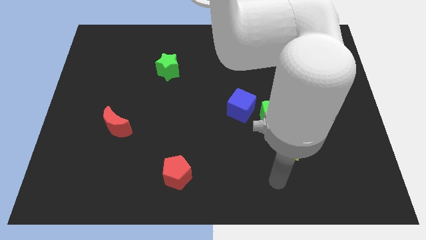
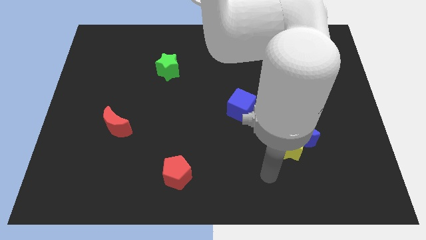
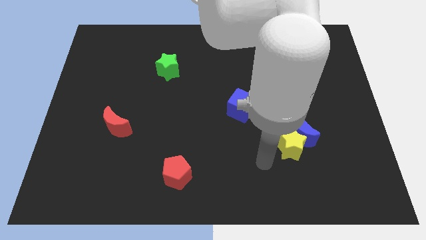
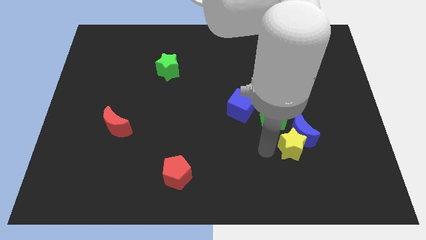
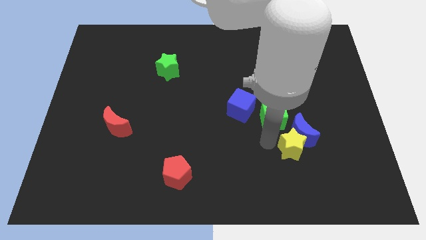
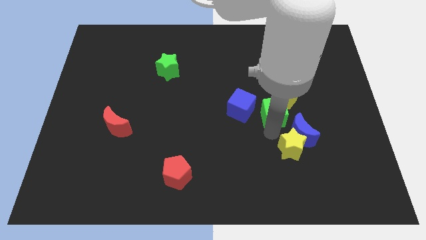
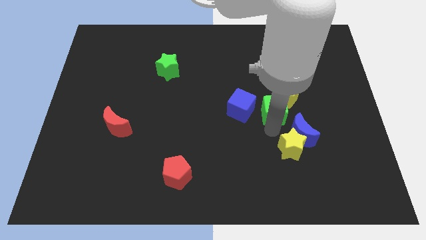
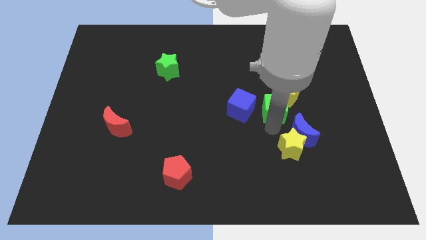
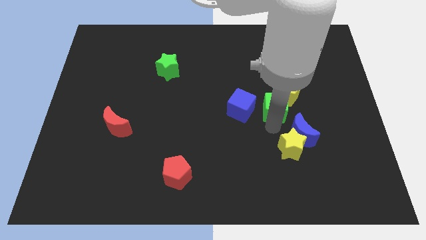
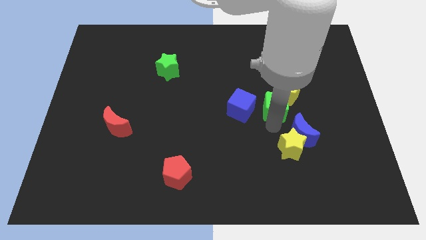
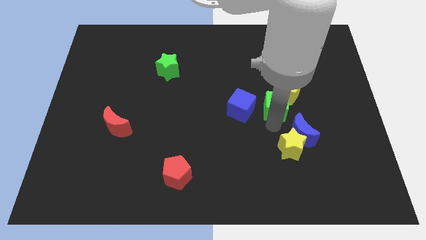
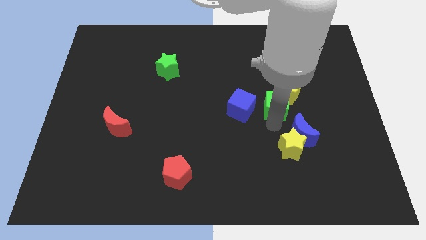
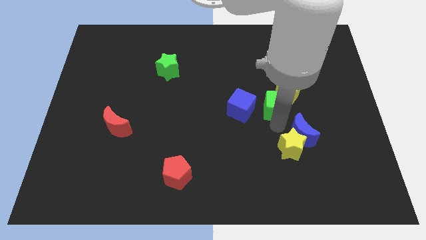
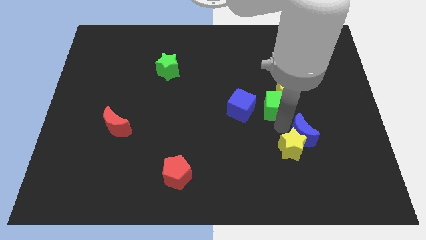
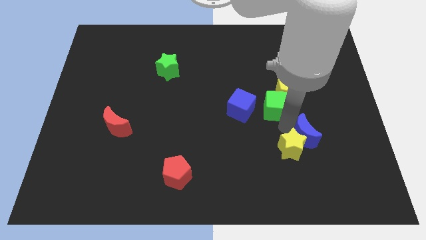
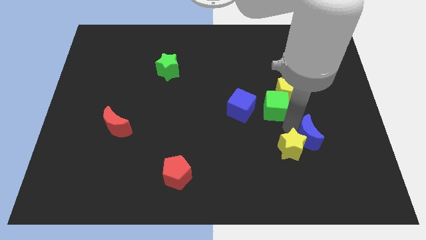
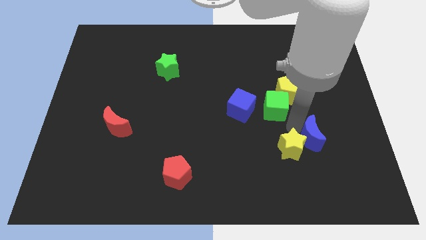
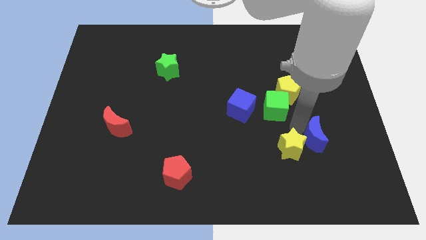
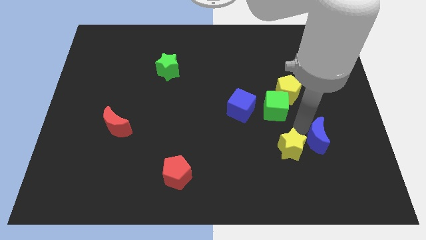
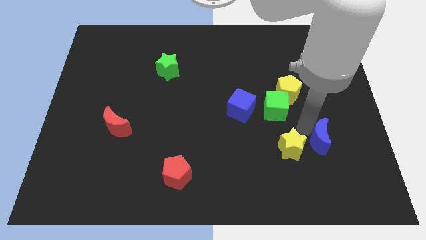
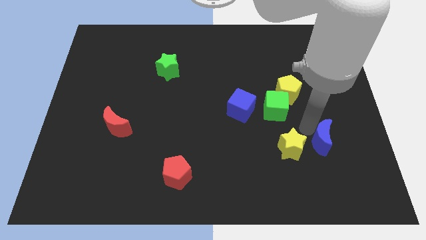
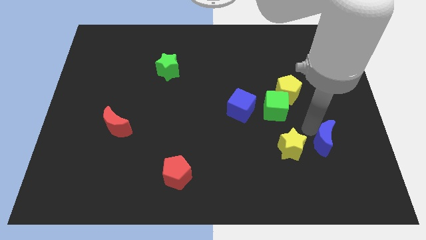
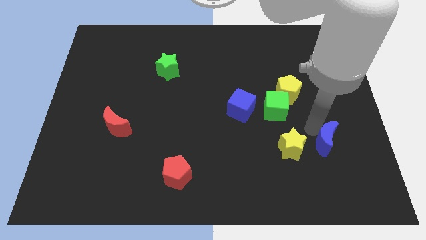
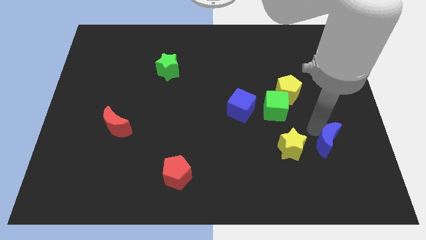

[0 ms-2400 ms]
separate the blue moon from the yellow star and green cube

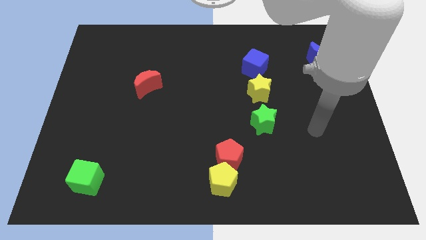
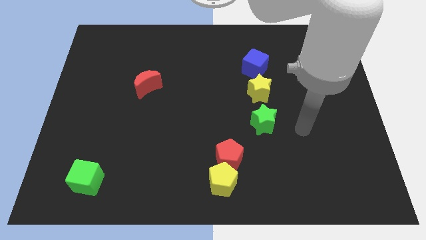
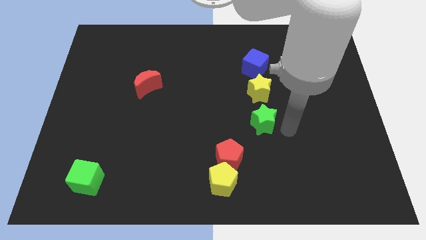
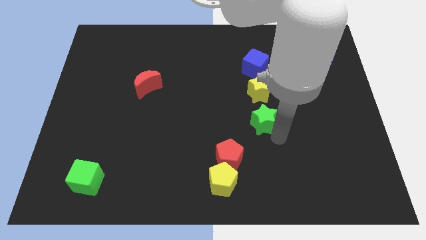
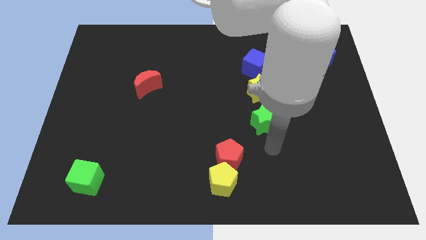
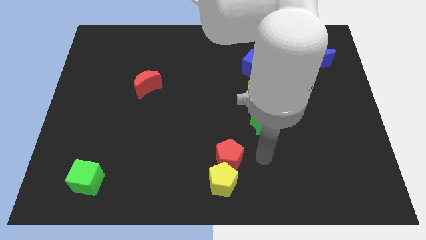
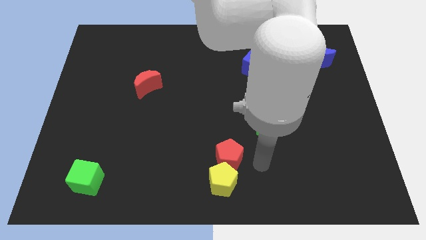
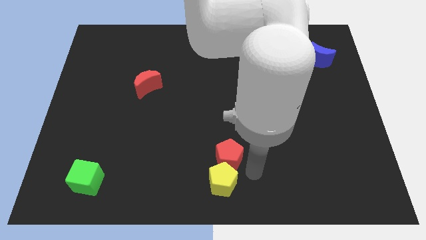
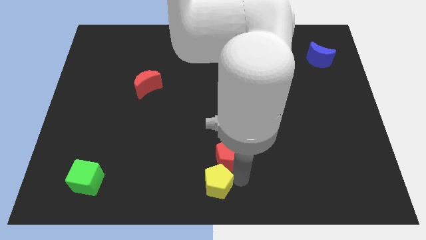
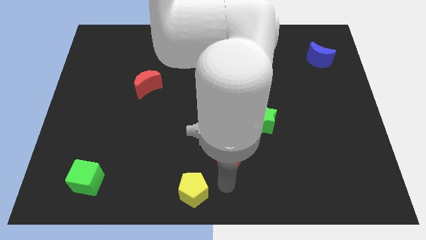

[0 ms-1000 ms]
pull the red pentagon apart from the yellow pentagon

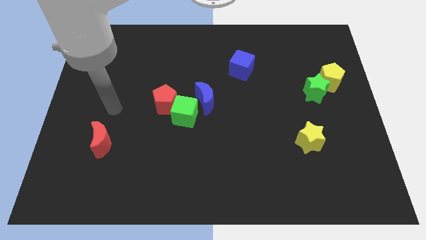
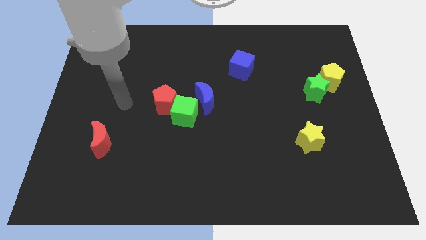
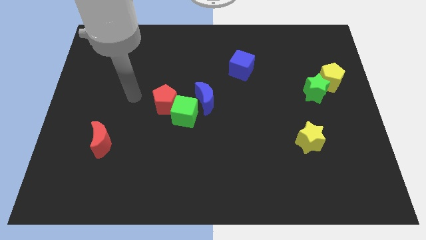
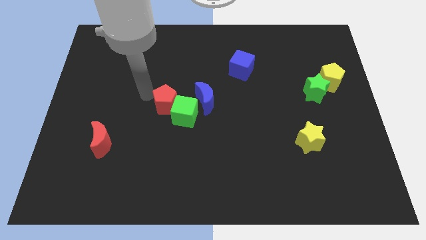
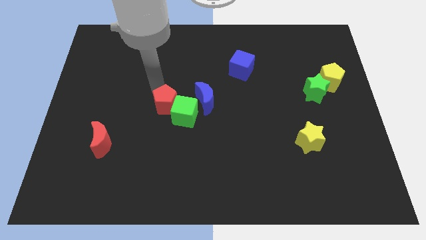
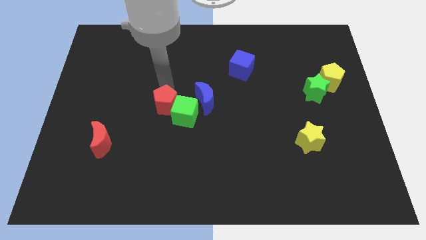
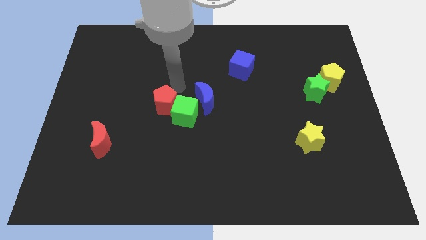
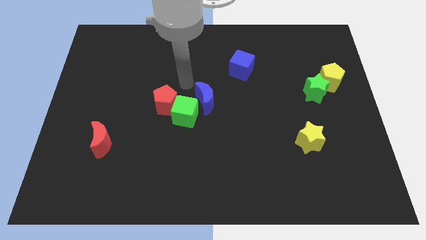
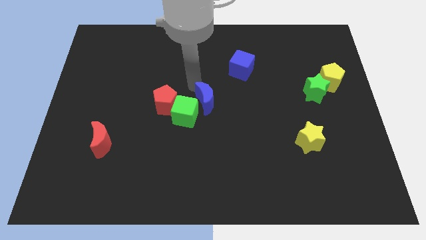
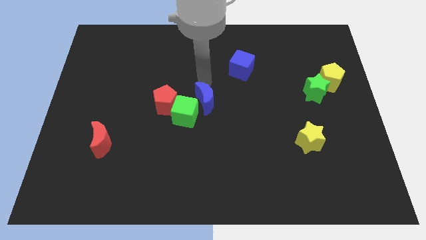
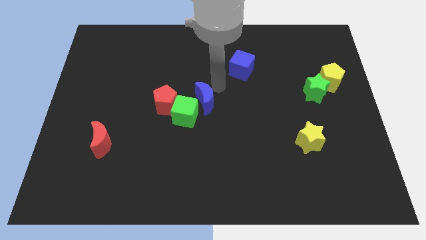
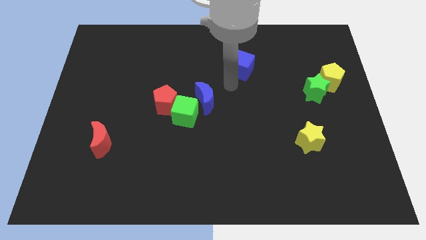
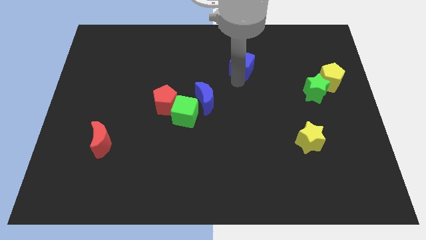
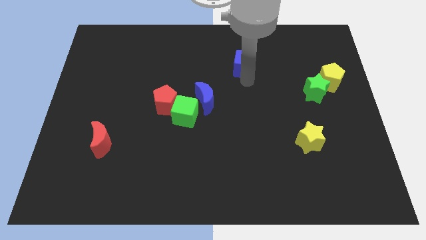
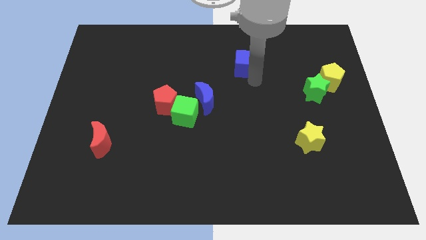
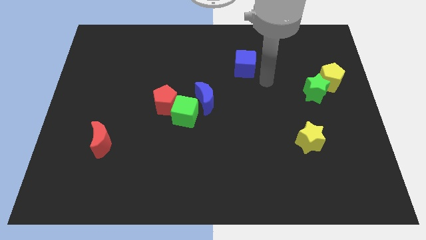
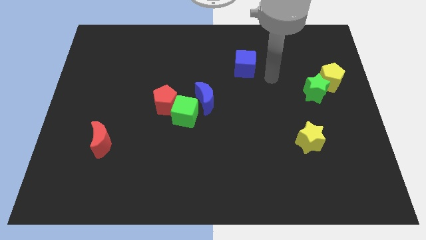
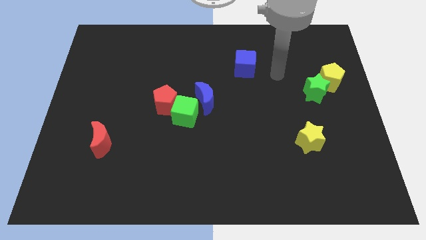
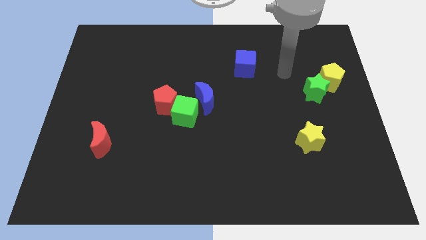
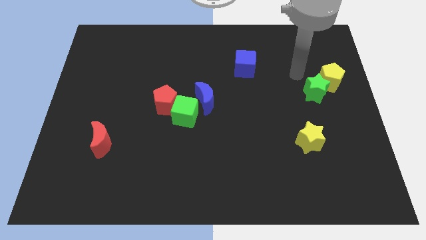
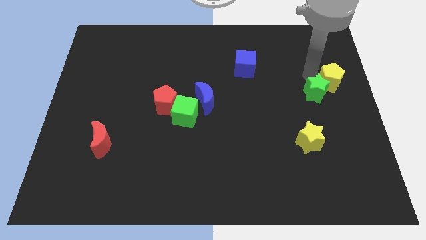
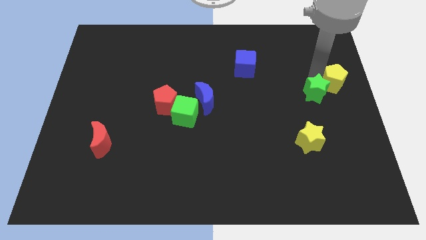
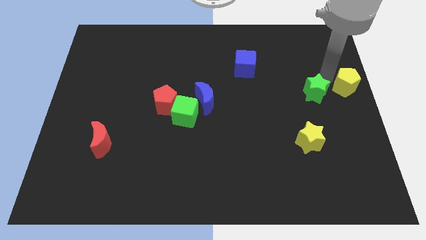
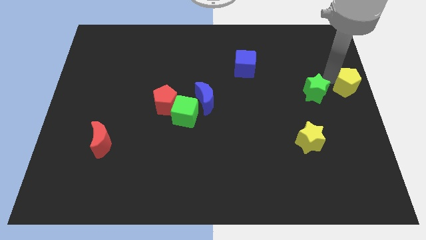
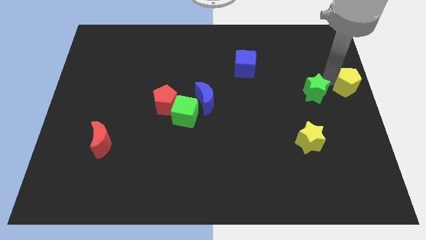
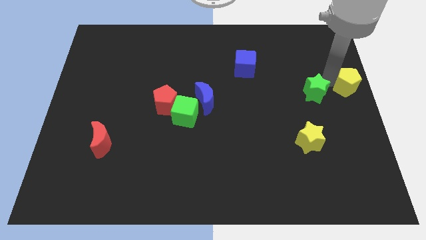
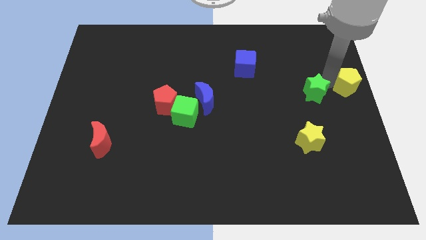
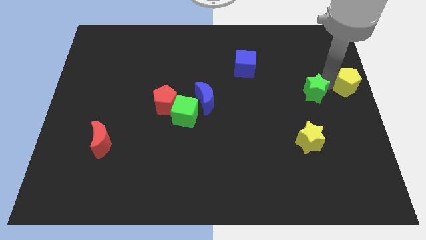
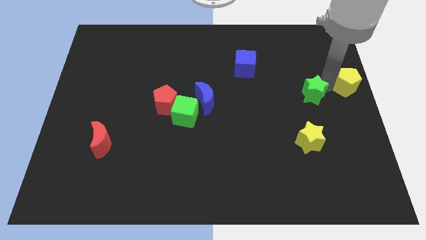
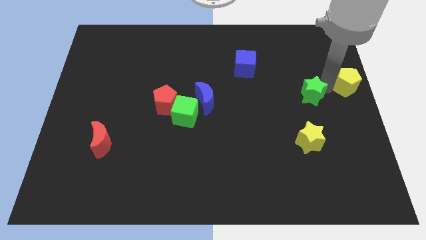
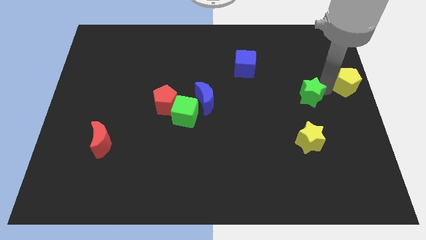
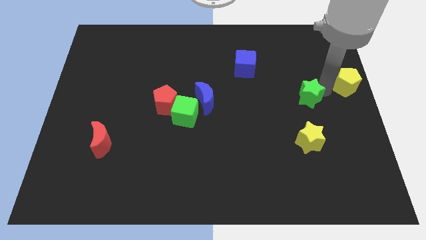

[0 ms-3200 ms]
pull the green star apart from the yellow pentagon

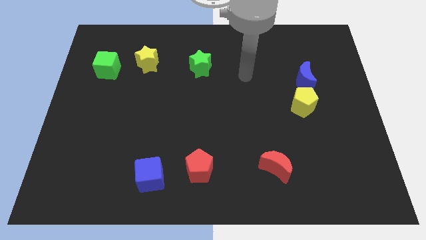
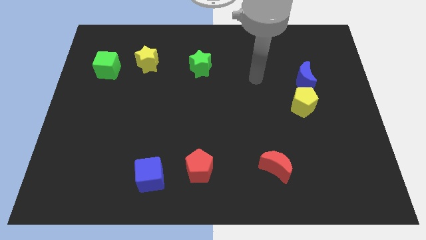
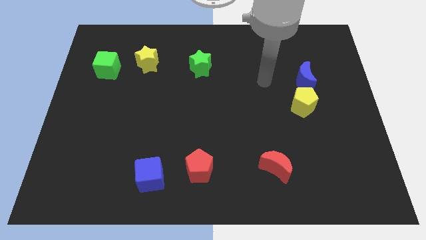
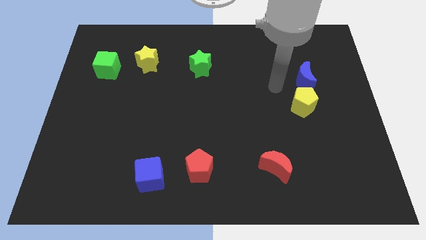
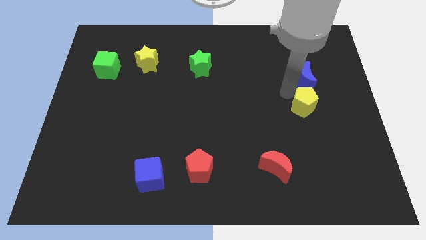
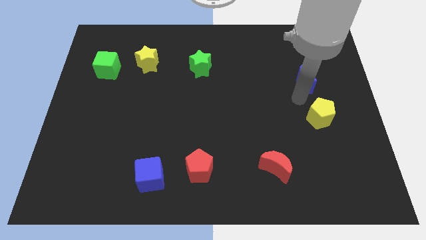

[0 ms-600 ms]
pull the blue moon apart from the yellow pentagon

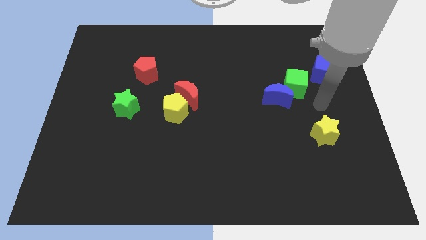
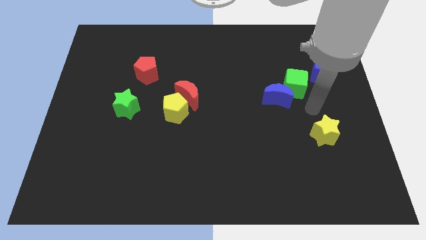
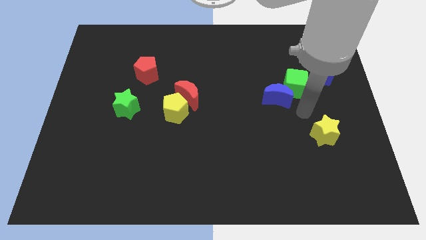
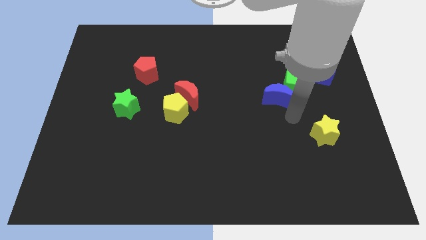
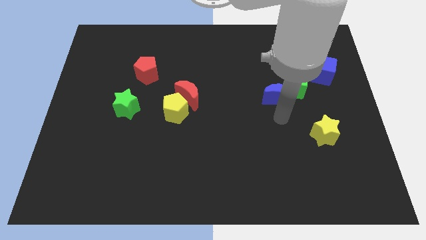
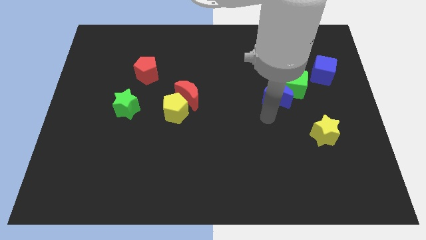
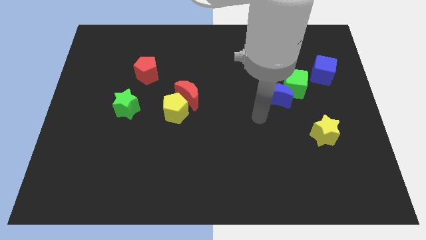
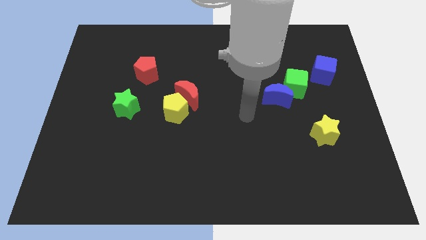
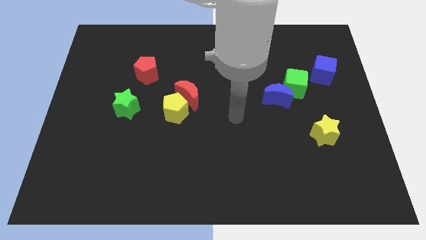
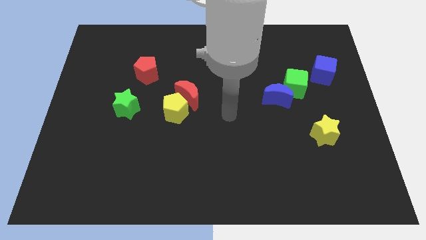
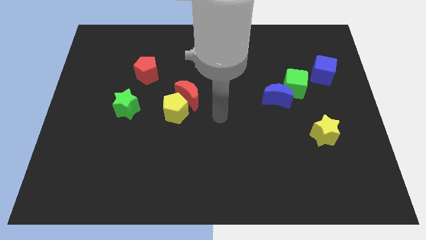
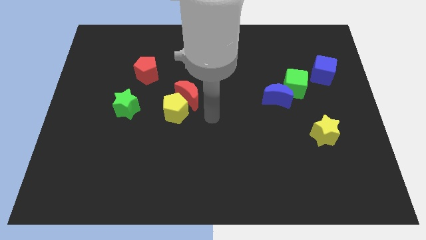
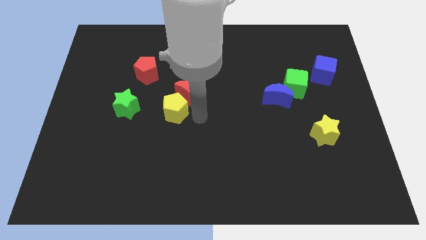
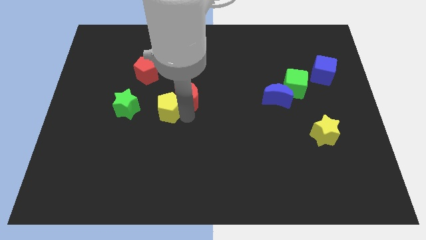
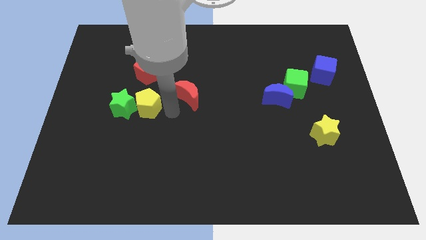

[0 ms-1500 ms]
move the red moon away from the yellow pentagon

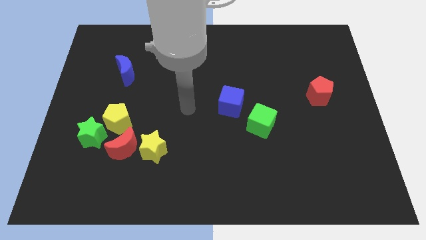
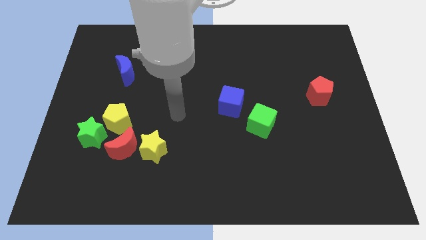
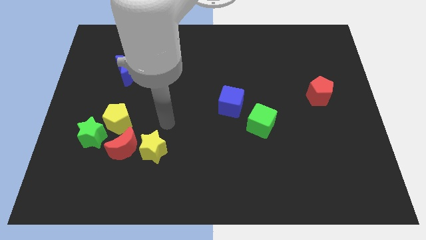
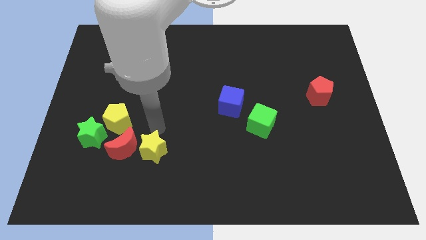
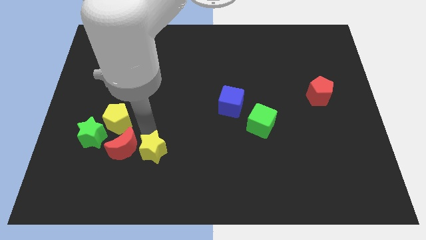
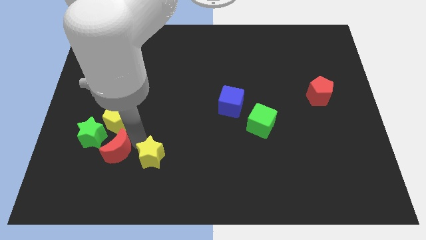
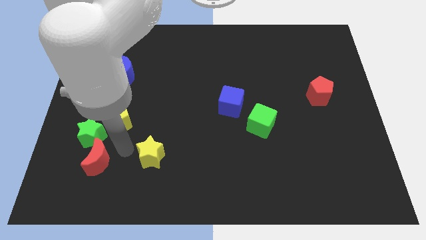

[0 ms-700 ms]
pull the yellow star apart from the red moon
